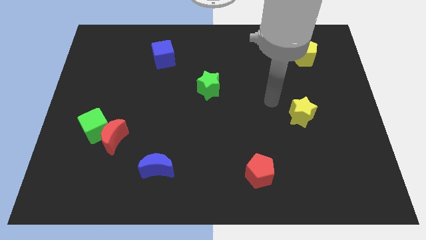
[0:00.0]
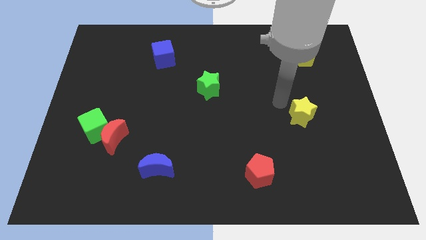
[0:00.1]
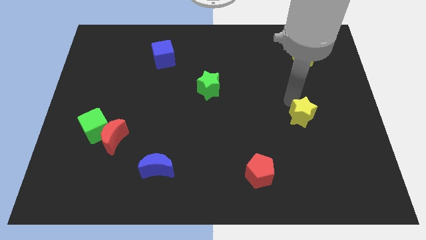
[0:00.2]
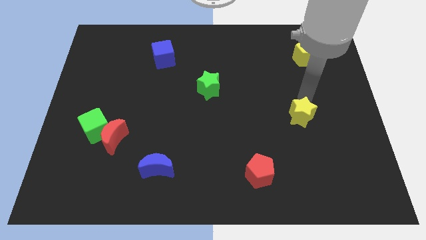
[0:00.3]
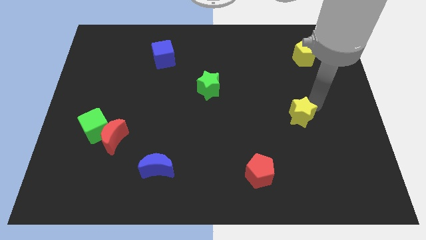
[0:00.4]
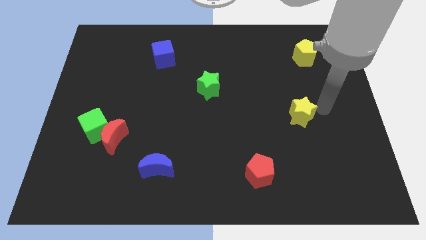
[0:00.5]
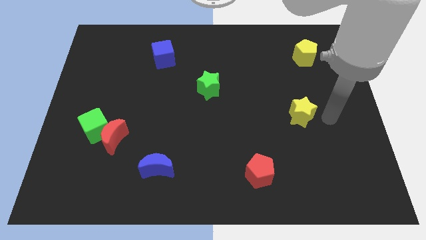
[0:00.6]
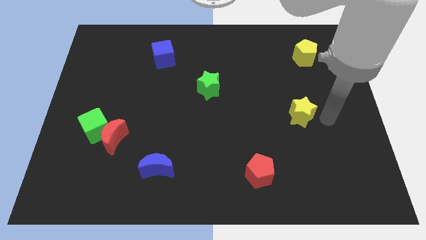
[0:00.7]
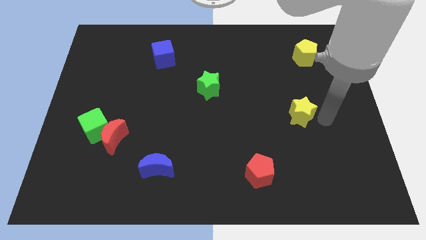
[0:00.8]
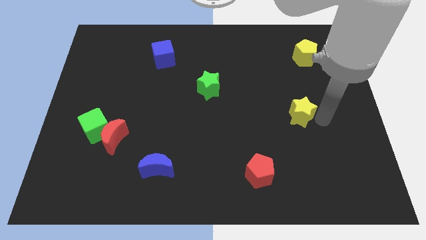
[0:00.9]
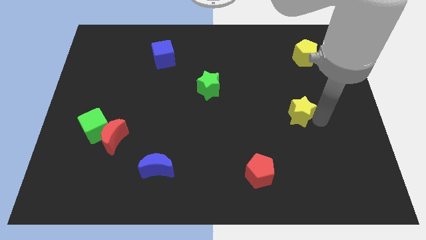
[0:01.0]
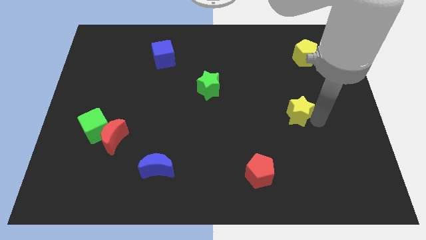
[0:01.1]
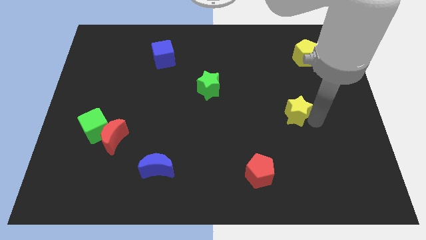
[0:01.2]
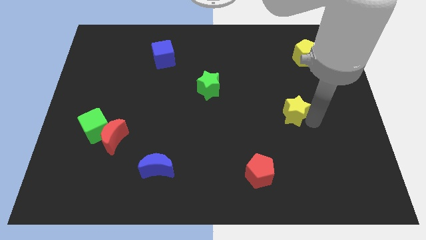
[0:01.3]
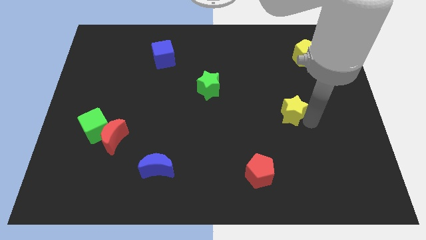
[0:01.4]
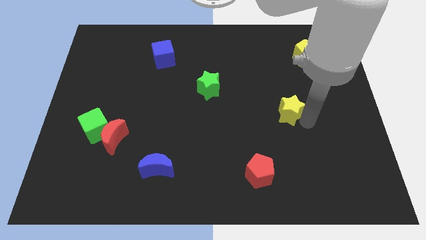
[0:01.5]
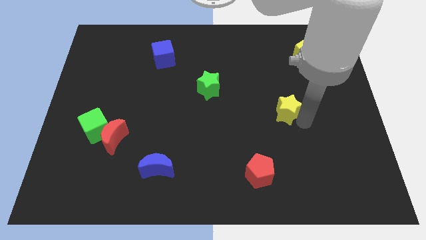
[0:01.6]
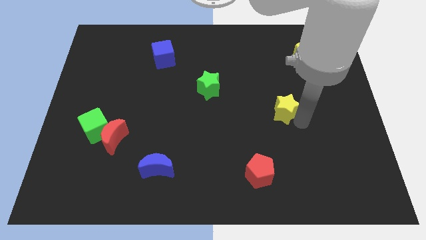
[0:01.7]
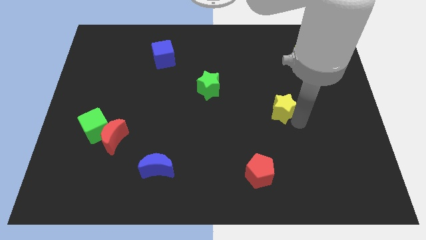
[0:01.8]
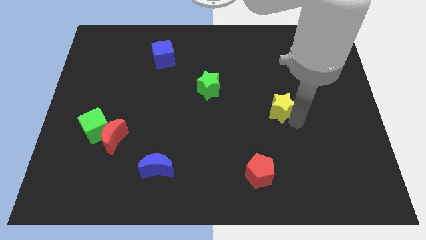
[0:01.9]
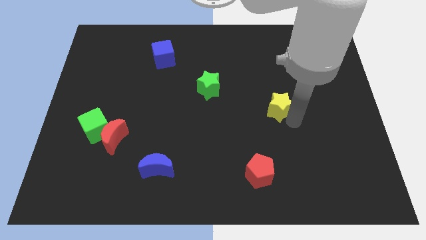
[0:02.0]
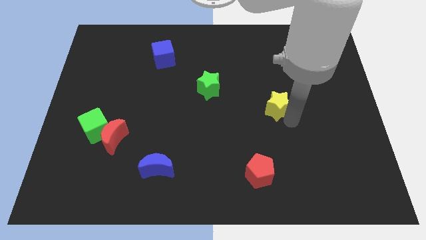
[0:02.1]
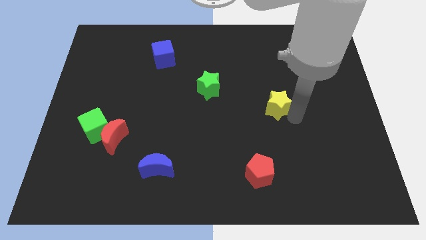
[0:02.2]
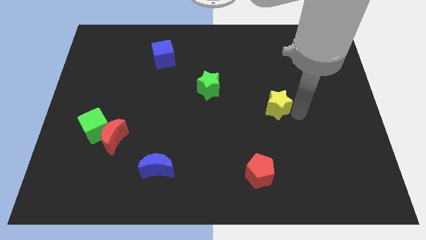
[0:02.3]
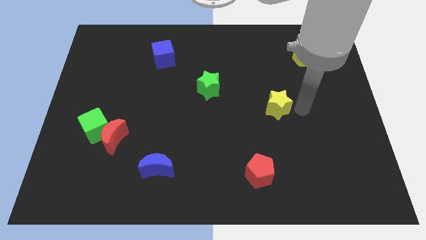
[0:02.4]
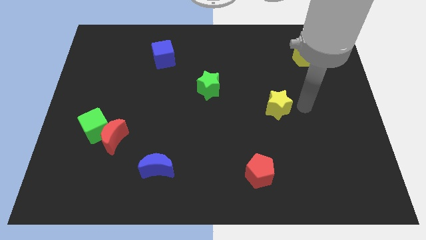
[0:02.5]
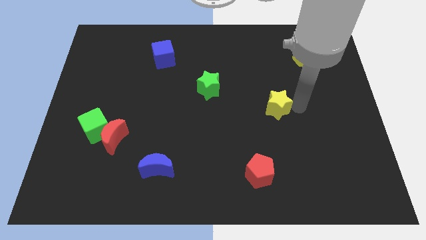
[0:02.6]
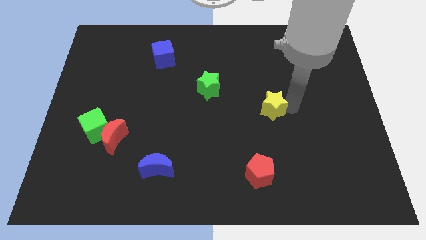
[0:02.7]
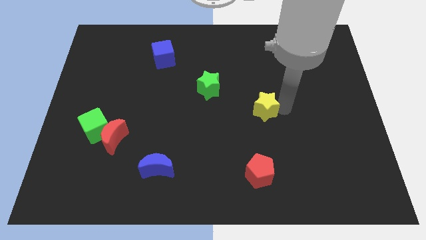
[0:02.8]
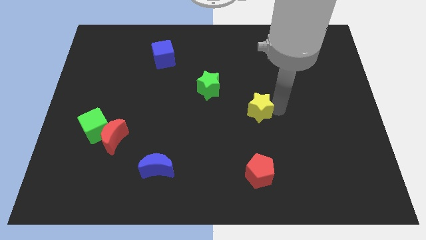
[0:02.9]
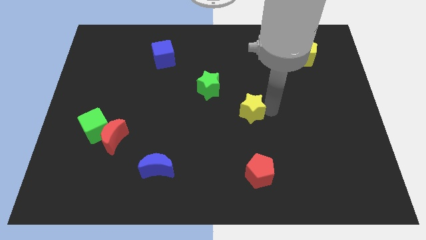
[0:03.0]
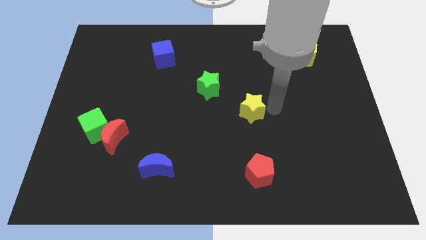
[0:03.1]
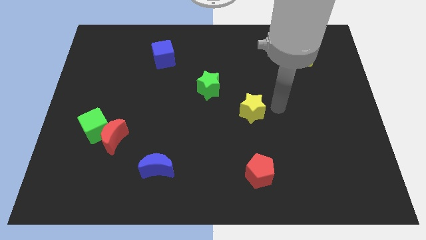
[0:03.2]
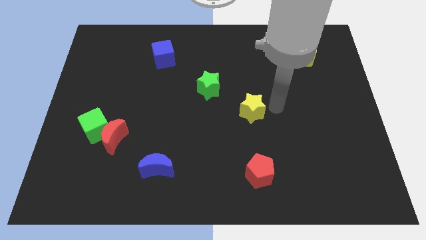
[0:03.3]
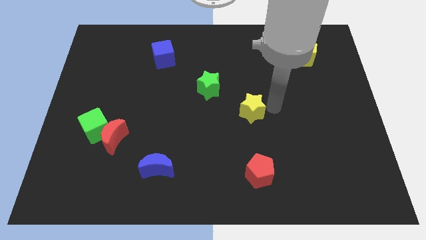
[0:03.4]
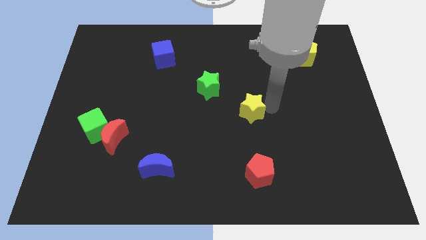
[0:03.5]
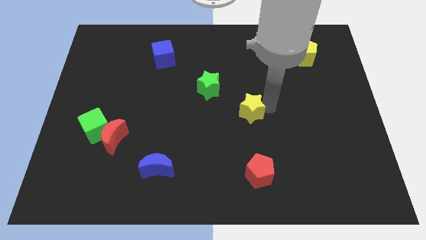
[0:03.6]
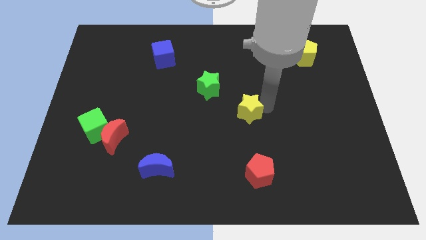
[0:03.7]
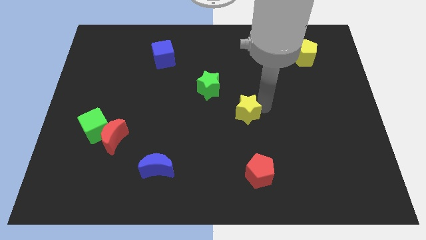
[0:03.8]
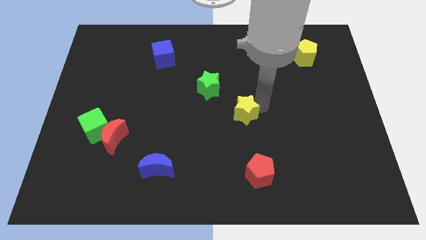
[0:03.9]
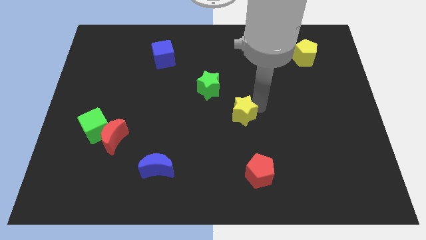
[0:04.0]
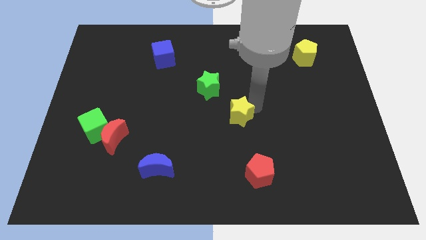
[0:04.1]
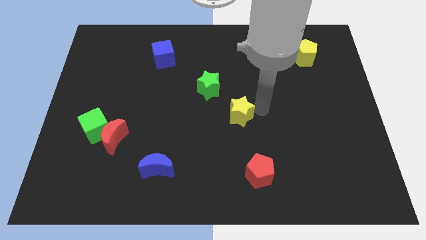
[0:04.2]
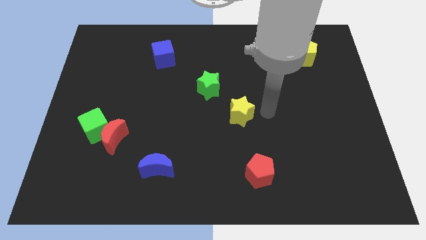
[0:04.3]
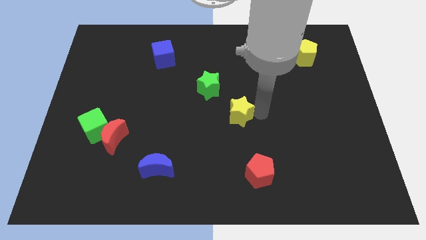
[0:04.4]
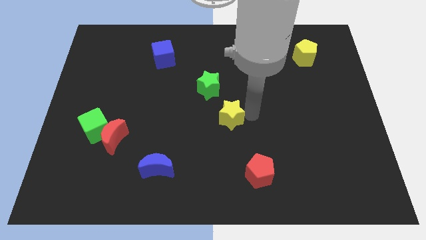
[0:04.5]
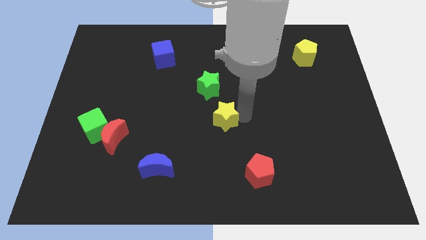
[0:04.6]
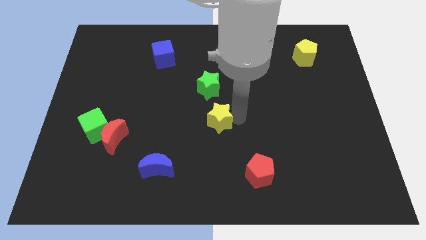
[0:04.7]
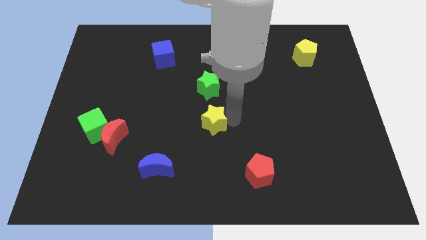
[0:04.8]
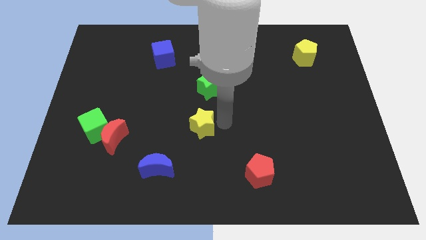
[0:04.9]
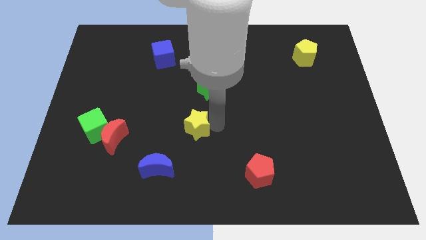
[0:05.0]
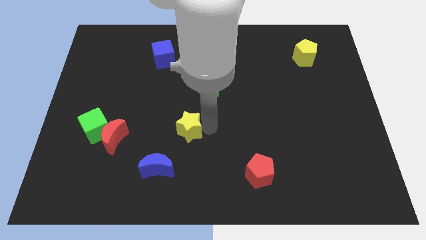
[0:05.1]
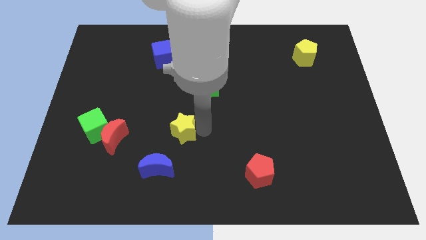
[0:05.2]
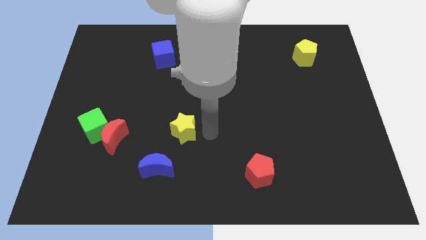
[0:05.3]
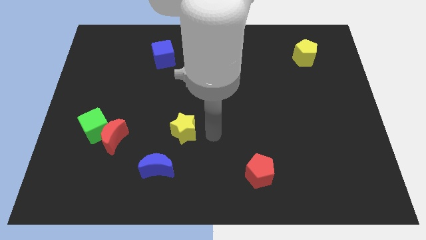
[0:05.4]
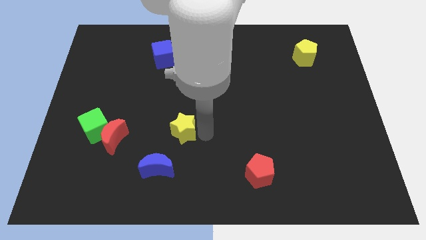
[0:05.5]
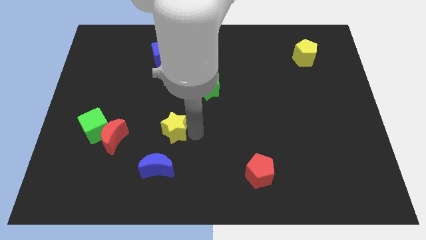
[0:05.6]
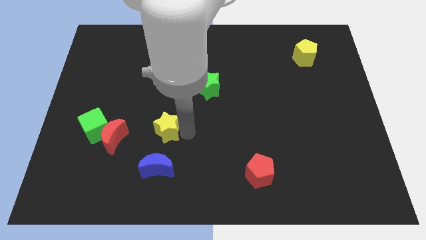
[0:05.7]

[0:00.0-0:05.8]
push the yellow star right of the green cube

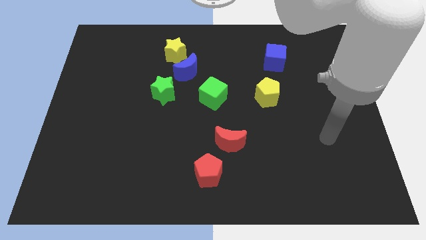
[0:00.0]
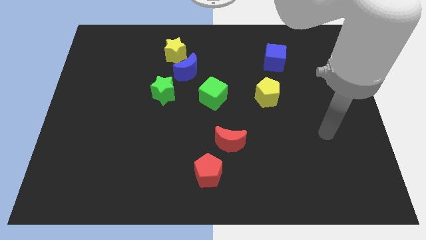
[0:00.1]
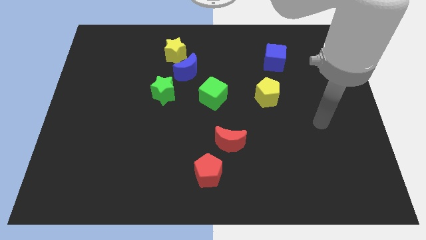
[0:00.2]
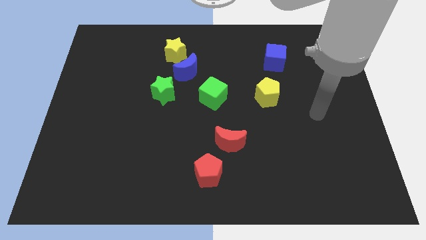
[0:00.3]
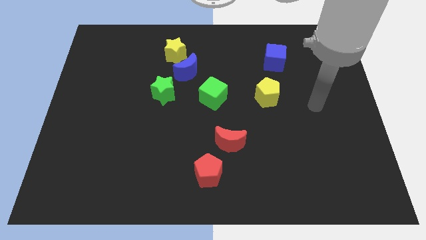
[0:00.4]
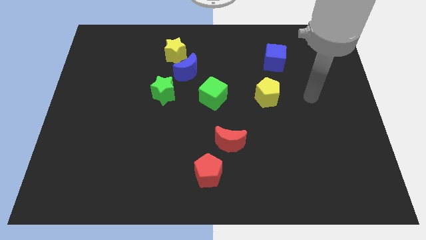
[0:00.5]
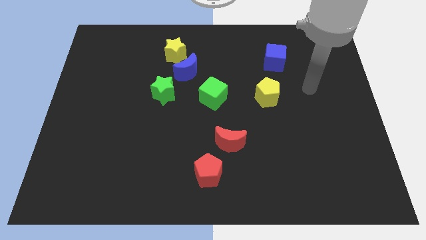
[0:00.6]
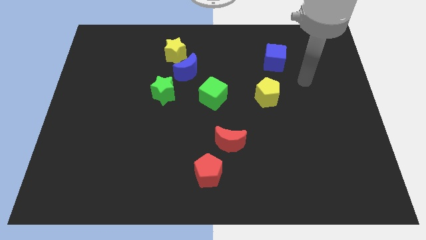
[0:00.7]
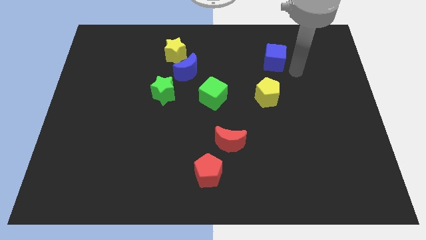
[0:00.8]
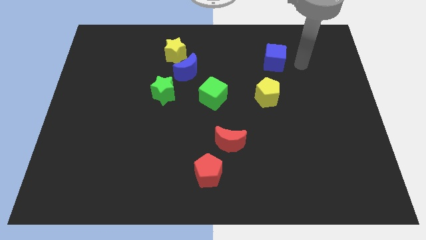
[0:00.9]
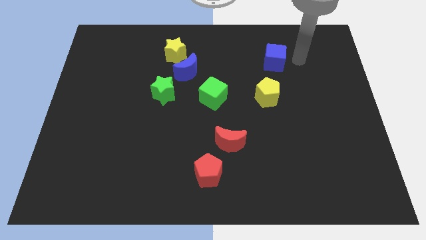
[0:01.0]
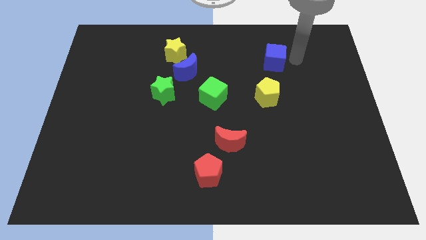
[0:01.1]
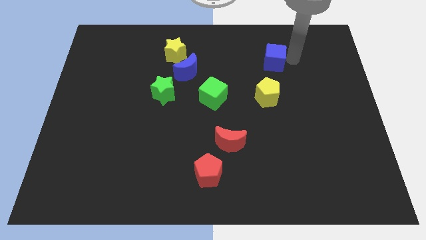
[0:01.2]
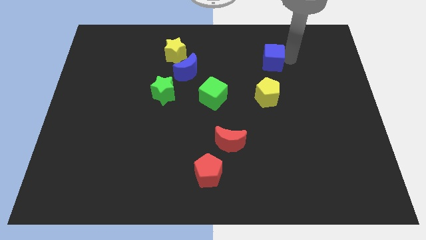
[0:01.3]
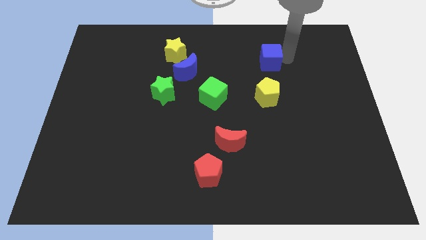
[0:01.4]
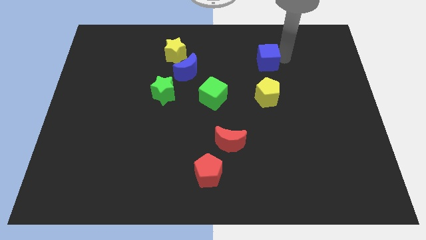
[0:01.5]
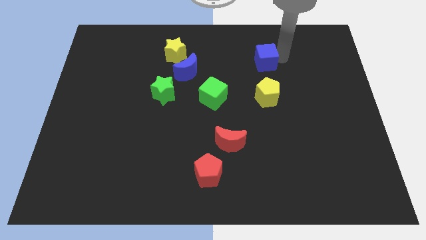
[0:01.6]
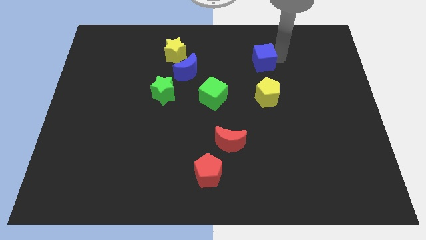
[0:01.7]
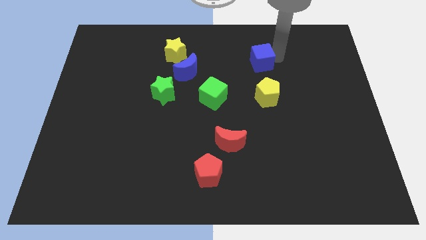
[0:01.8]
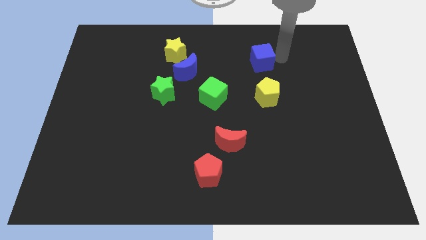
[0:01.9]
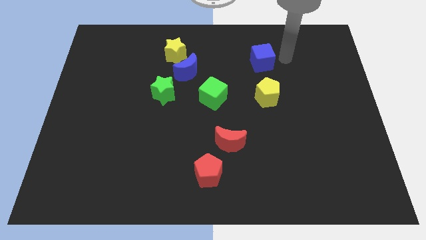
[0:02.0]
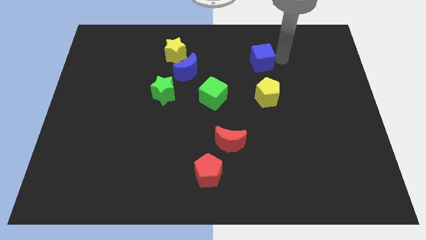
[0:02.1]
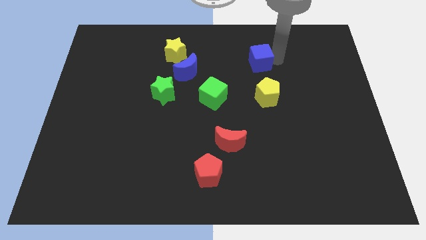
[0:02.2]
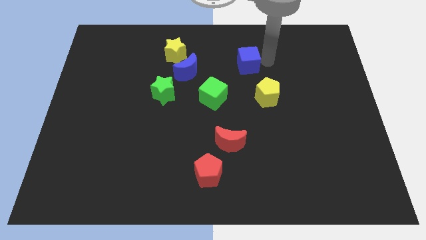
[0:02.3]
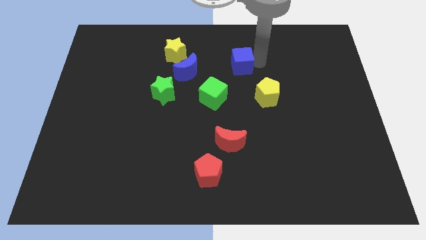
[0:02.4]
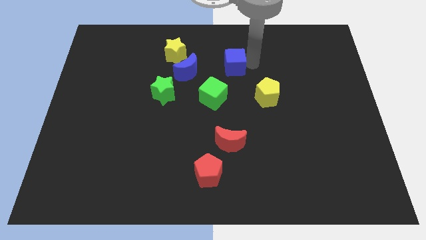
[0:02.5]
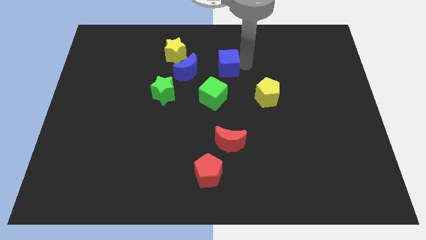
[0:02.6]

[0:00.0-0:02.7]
move the blue cube to the top of the green cube
